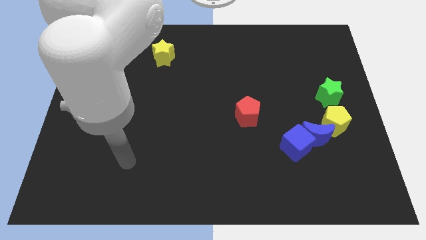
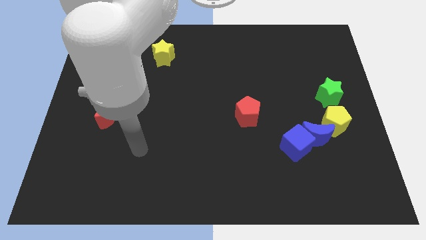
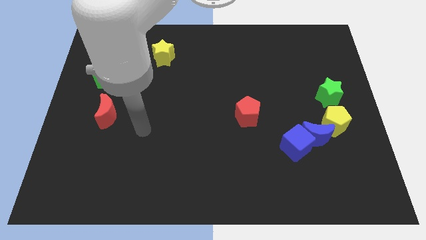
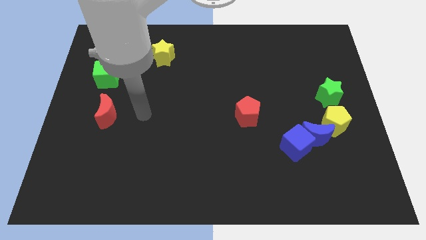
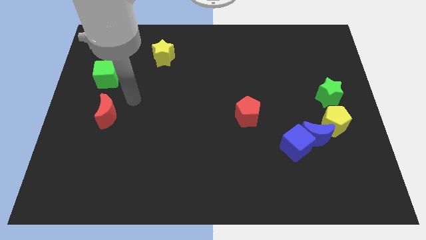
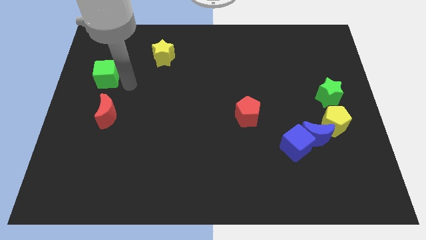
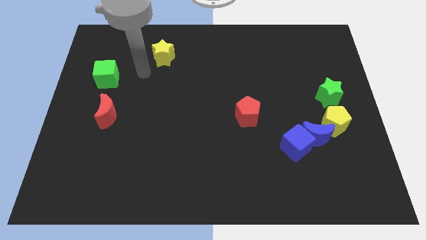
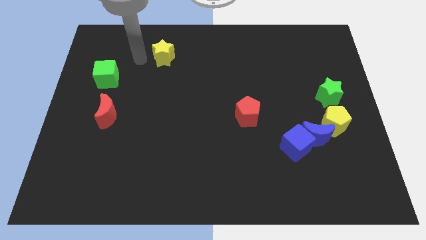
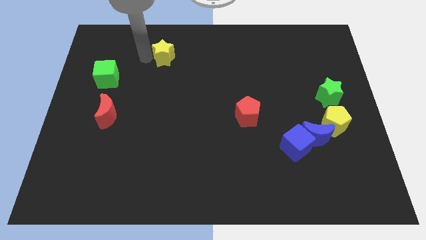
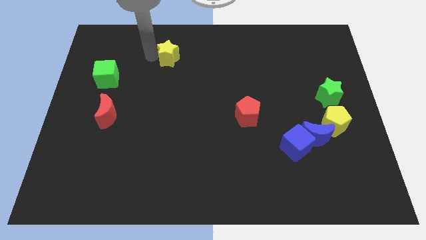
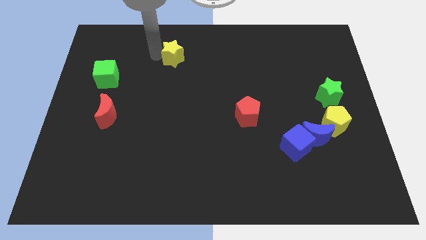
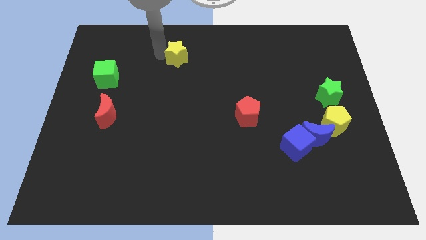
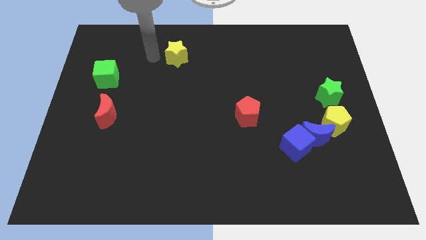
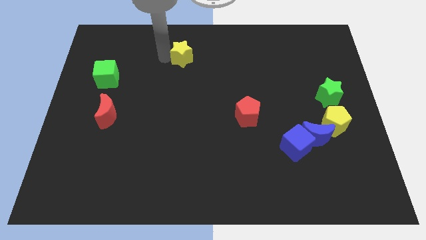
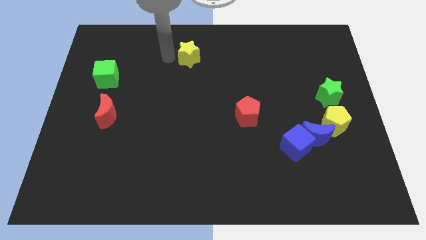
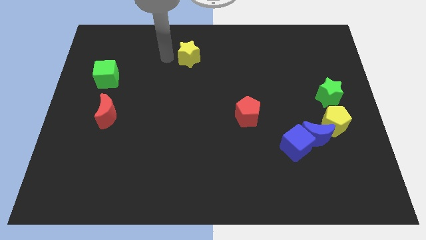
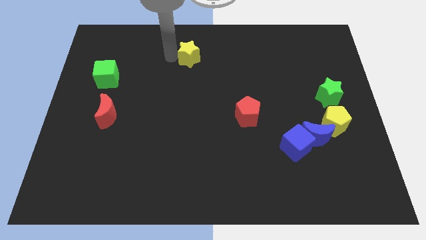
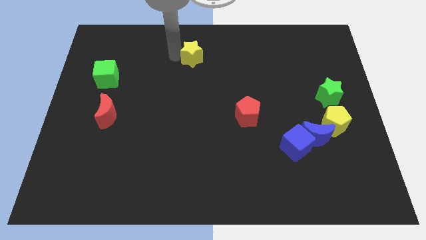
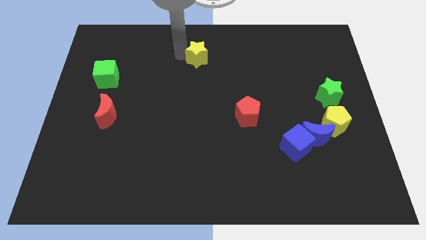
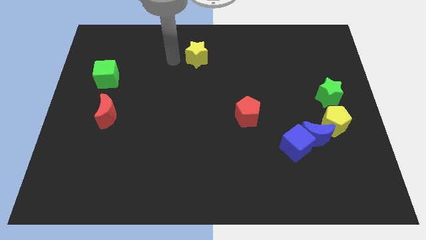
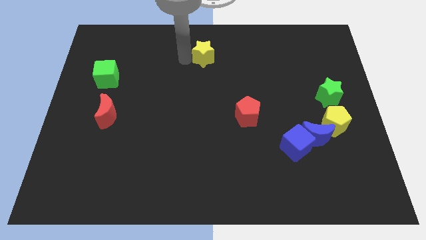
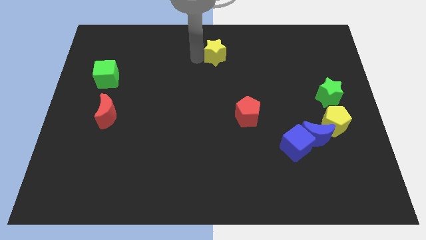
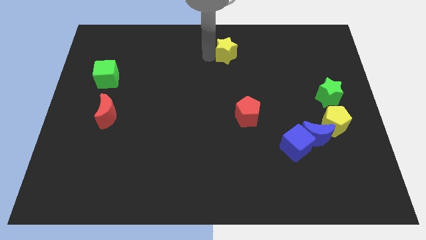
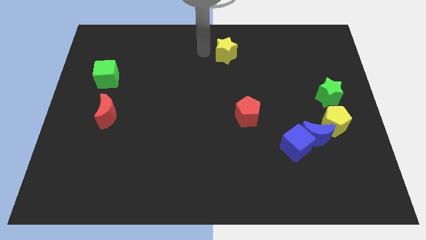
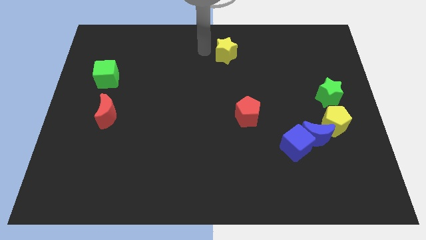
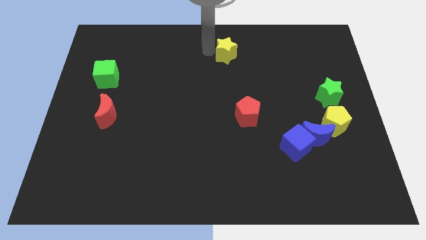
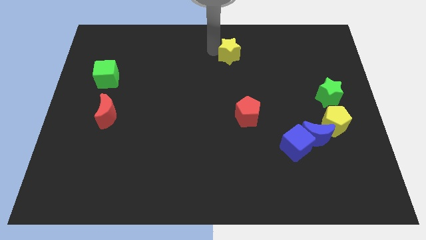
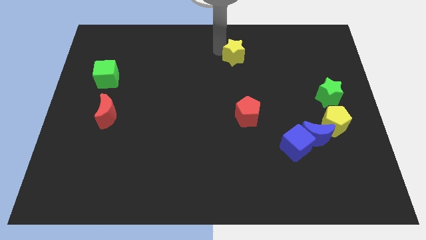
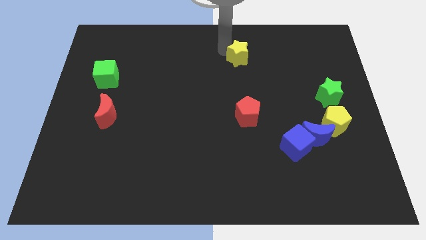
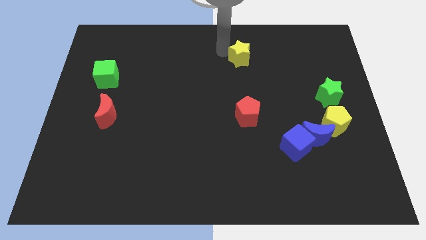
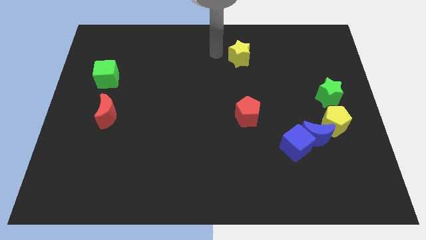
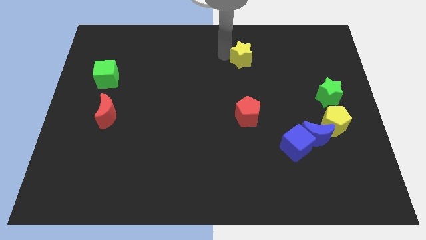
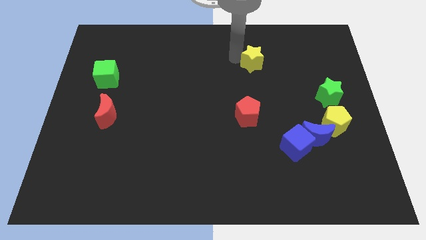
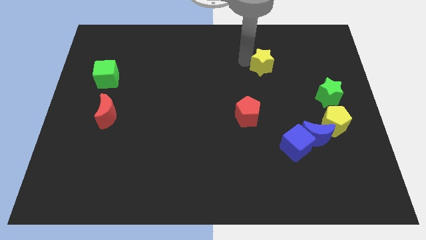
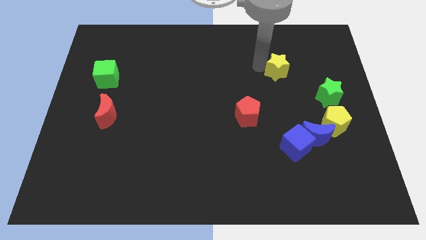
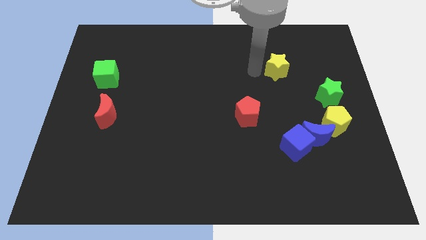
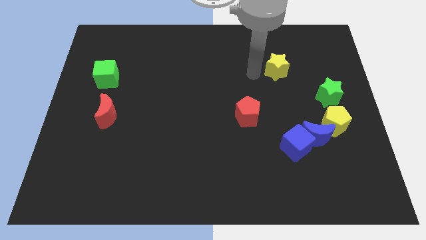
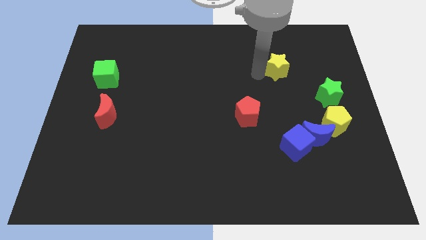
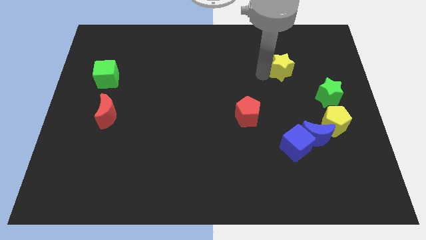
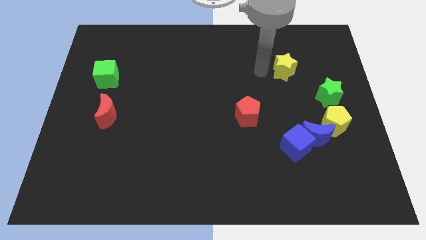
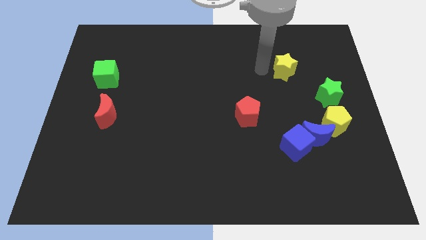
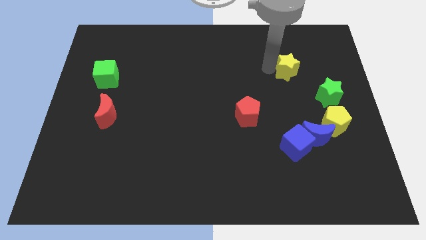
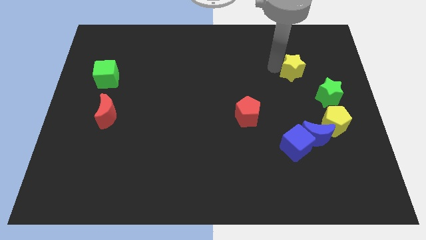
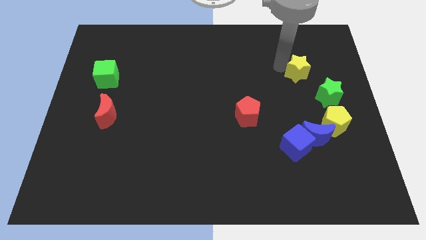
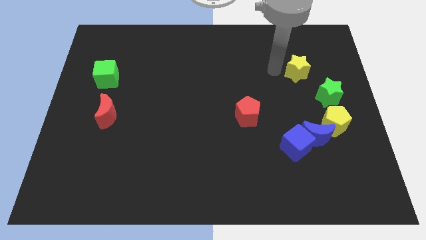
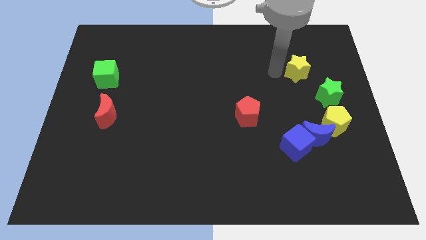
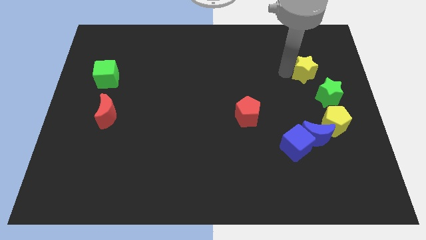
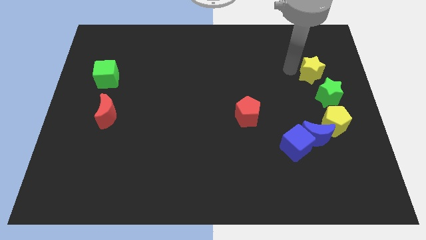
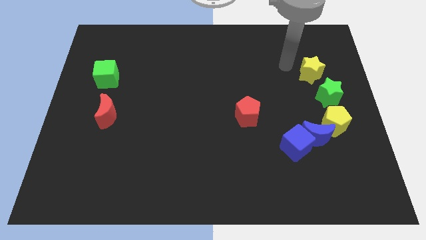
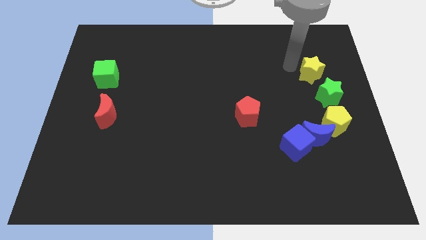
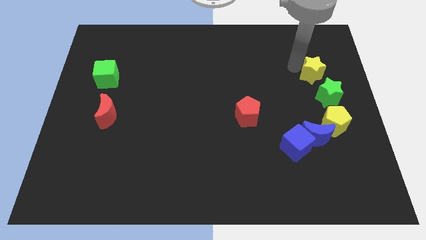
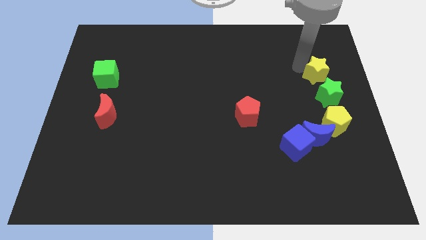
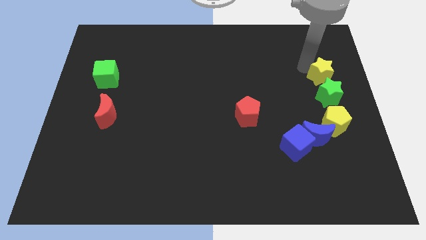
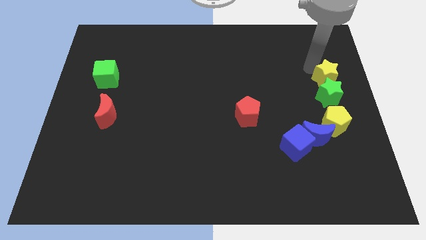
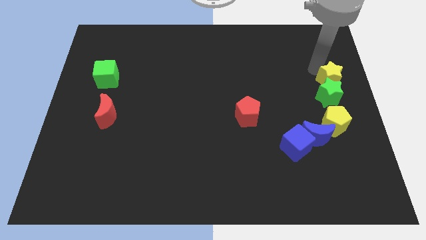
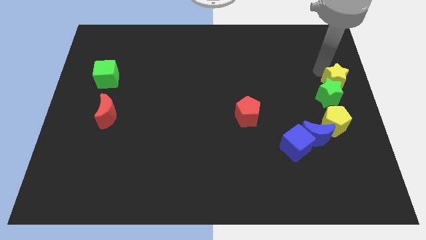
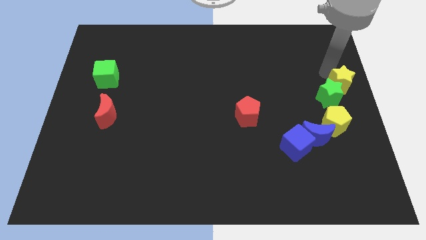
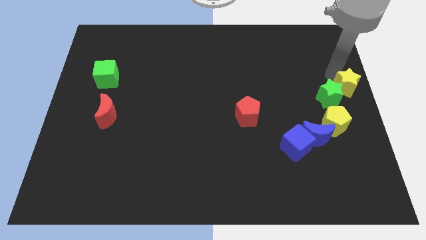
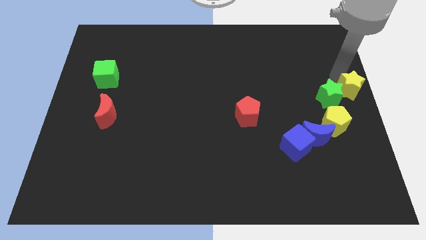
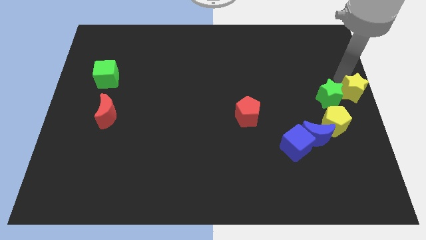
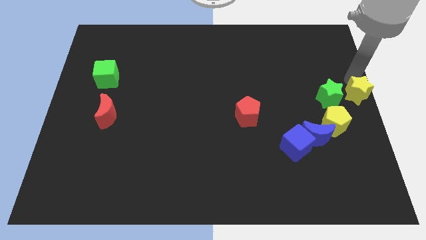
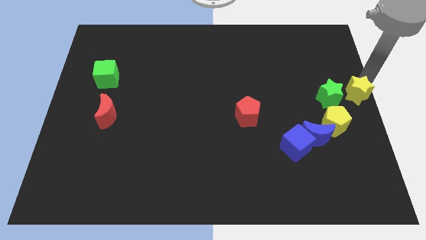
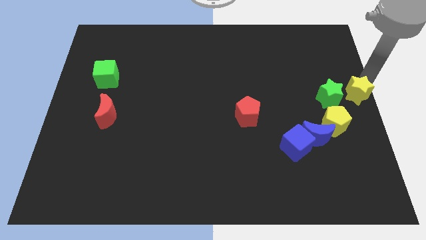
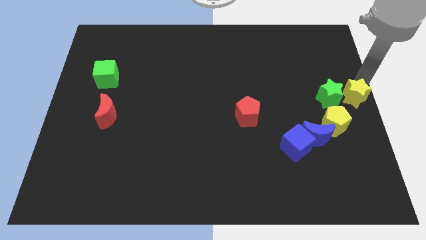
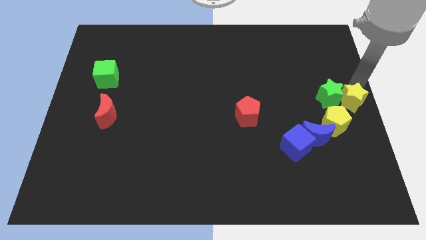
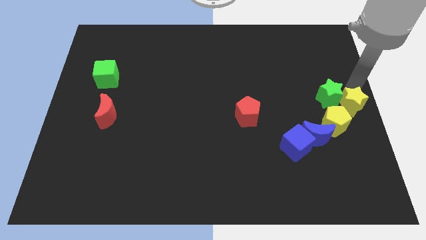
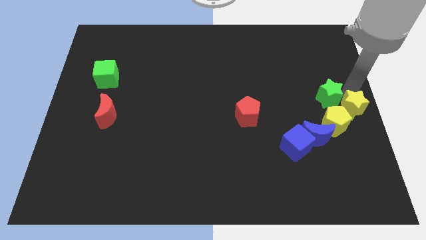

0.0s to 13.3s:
slide the yellow star to the top right side of the blue moon
